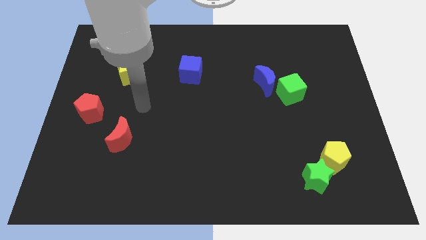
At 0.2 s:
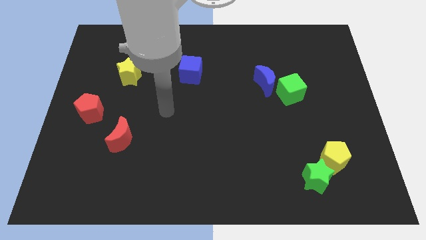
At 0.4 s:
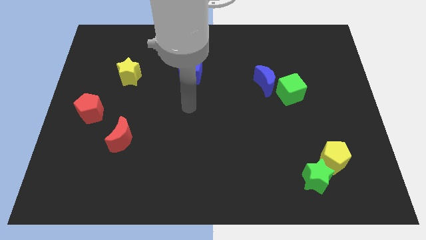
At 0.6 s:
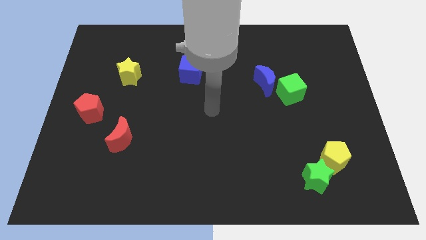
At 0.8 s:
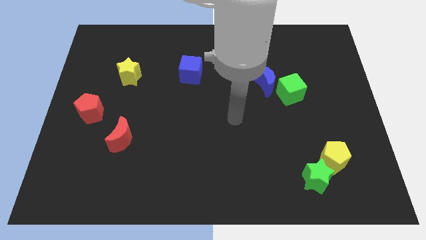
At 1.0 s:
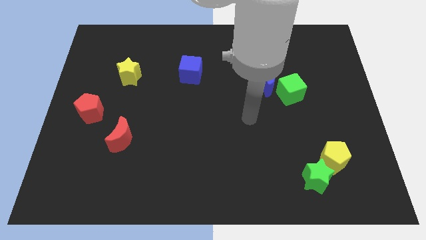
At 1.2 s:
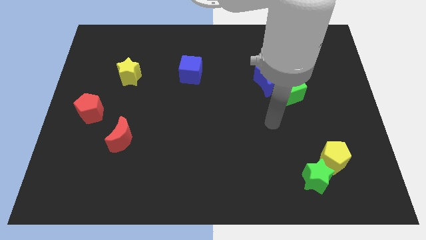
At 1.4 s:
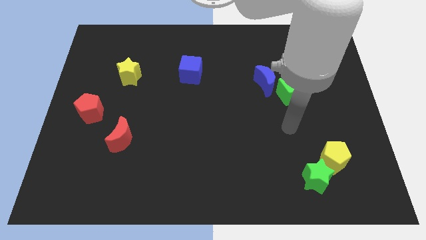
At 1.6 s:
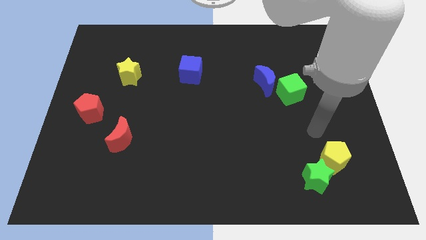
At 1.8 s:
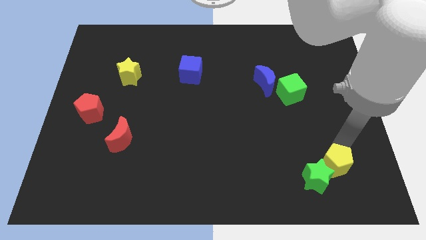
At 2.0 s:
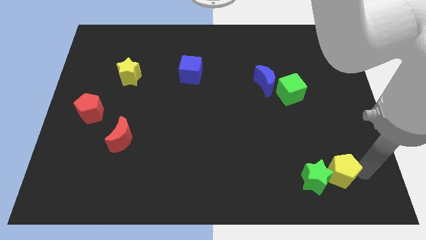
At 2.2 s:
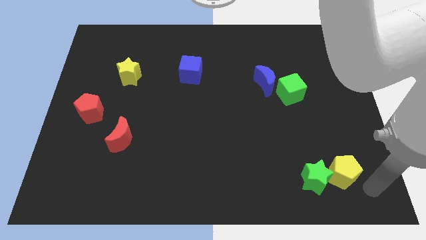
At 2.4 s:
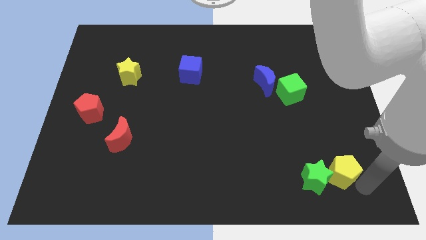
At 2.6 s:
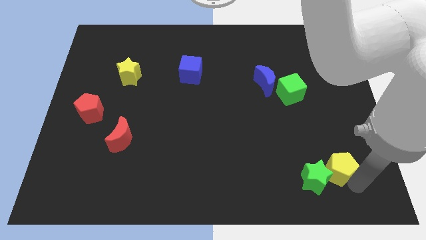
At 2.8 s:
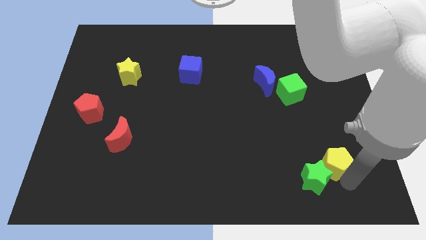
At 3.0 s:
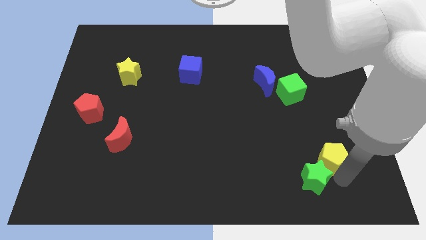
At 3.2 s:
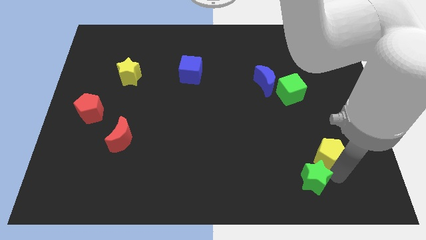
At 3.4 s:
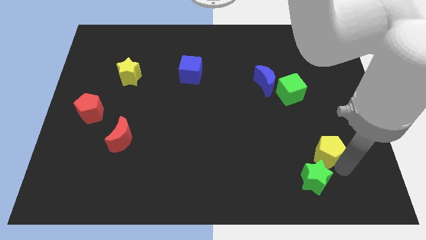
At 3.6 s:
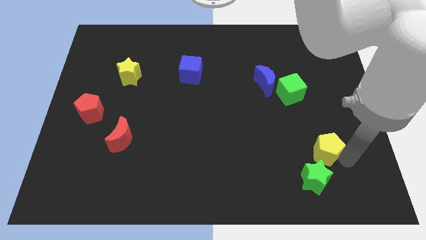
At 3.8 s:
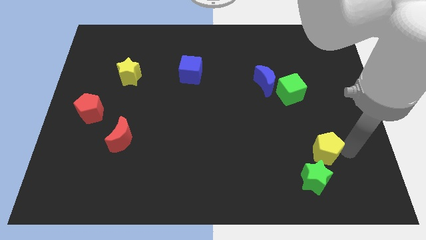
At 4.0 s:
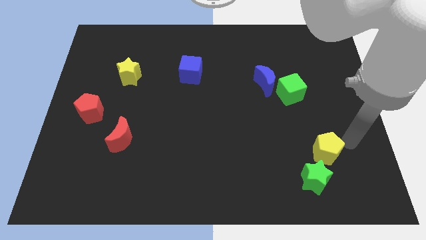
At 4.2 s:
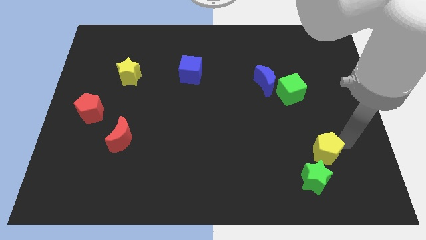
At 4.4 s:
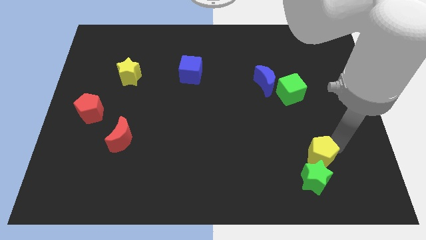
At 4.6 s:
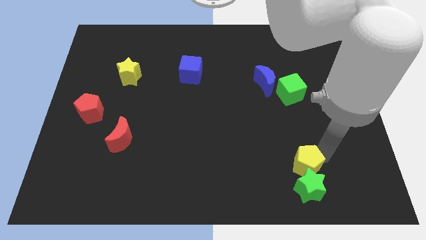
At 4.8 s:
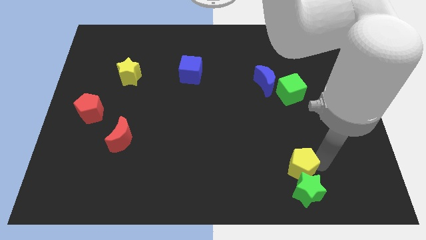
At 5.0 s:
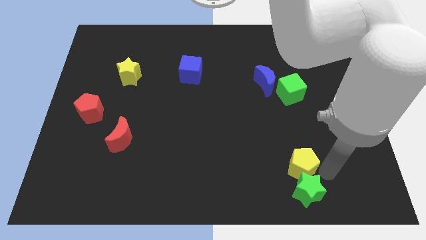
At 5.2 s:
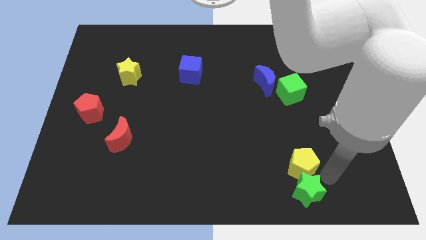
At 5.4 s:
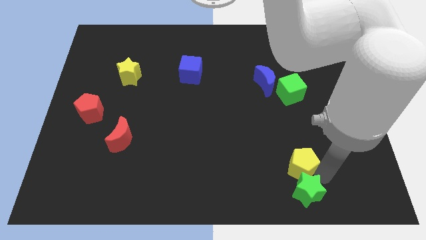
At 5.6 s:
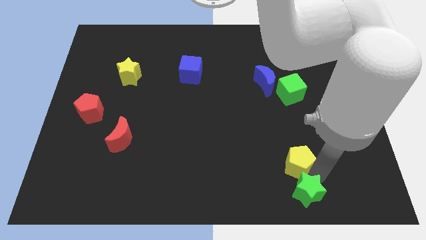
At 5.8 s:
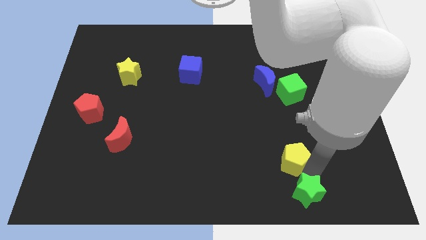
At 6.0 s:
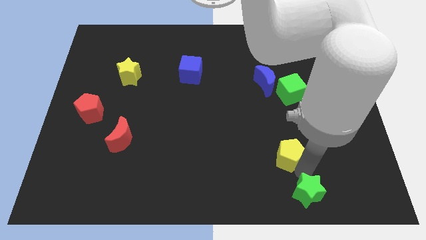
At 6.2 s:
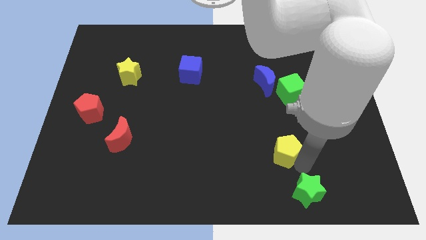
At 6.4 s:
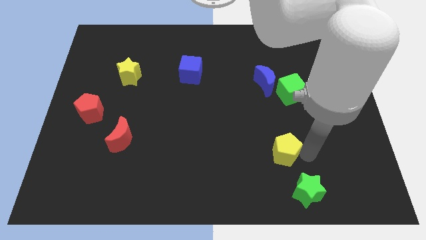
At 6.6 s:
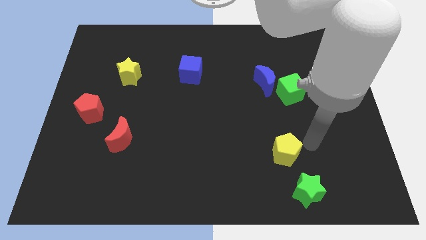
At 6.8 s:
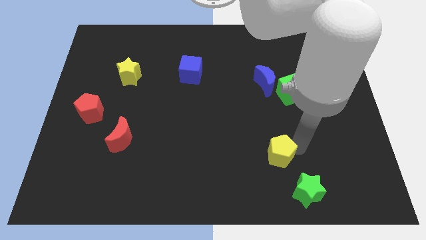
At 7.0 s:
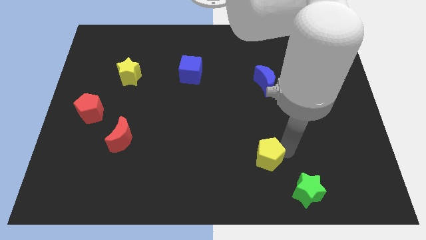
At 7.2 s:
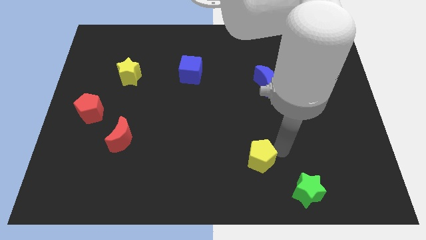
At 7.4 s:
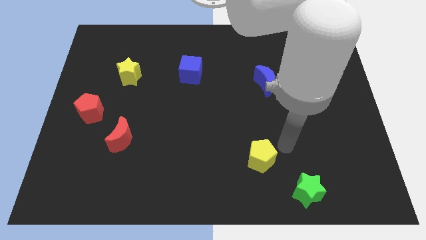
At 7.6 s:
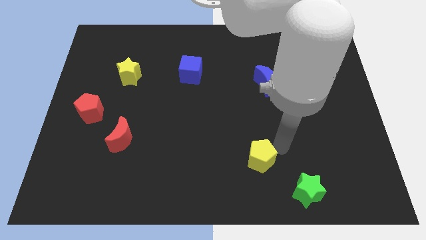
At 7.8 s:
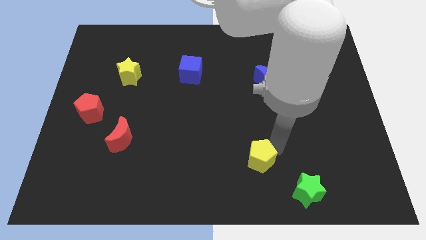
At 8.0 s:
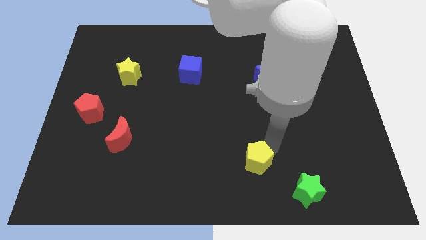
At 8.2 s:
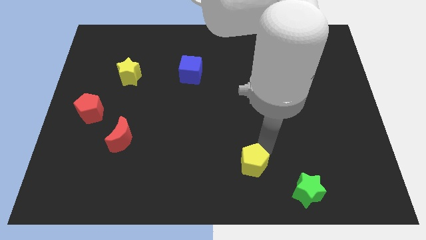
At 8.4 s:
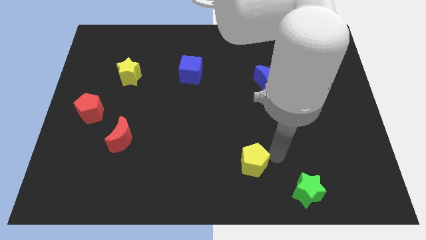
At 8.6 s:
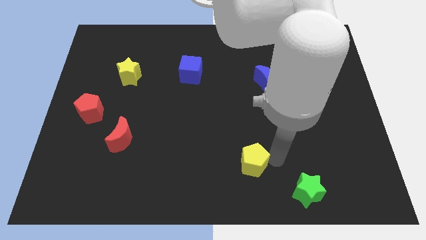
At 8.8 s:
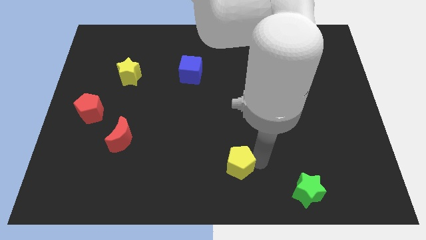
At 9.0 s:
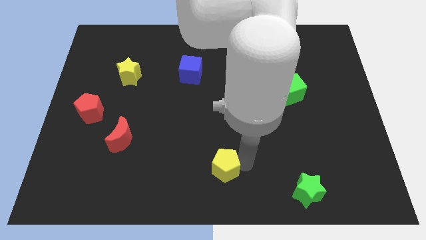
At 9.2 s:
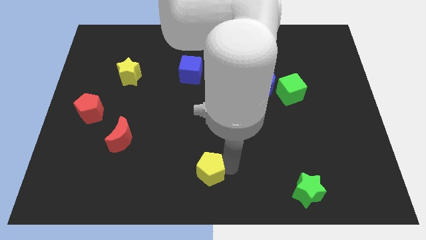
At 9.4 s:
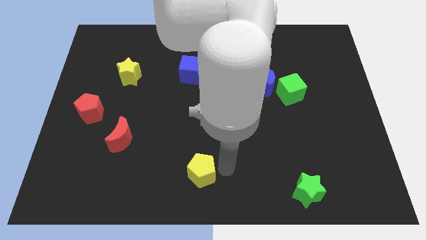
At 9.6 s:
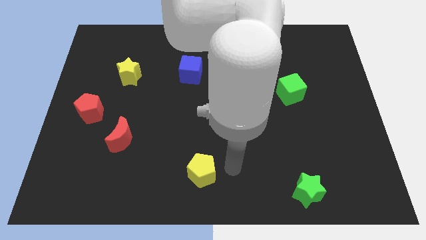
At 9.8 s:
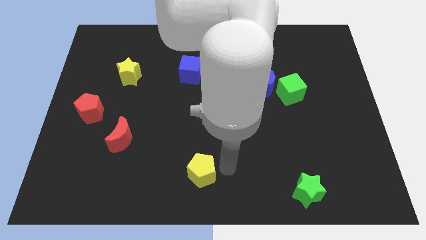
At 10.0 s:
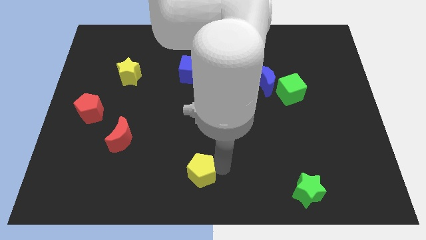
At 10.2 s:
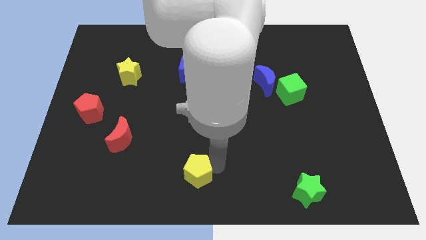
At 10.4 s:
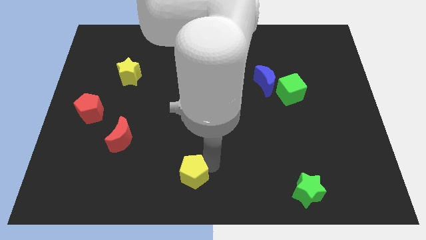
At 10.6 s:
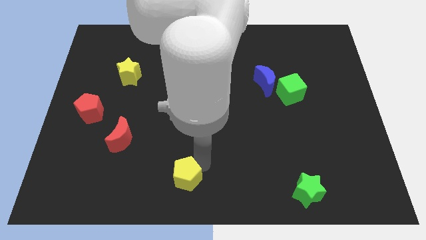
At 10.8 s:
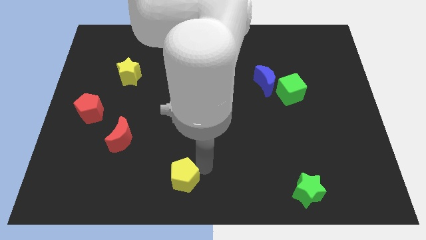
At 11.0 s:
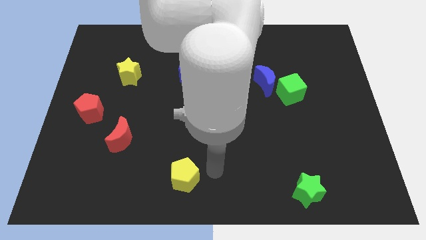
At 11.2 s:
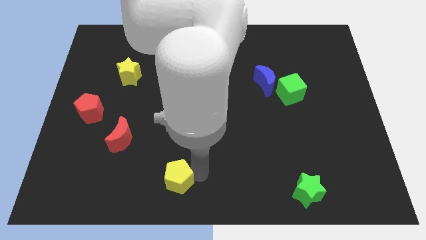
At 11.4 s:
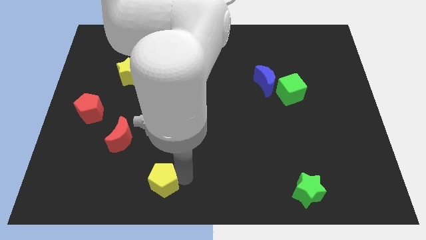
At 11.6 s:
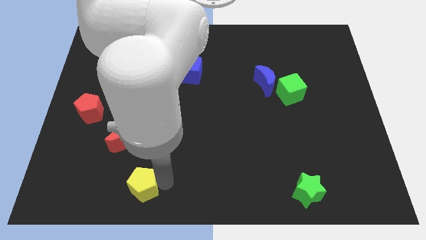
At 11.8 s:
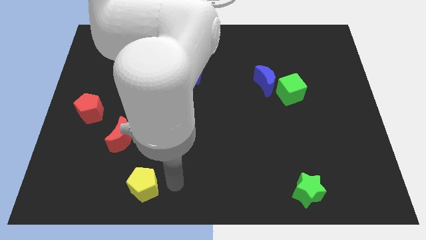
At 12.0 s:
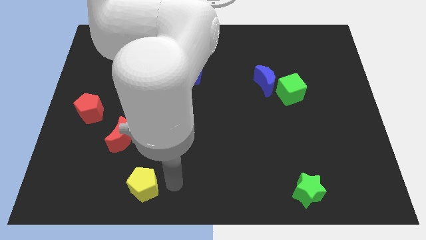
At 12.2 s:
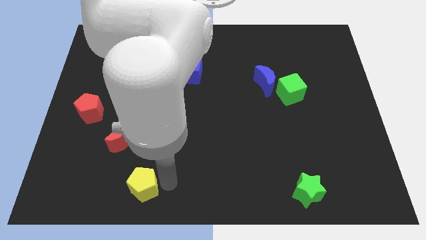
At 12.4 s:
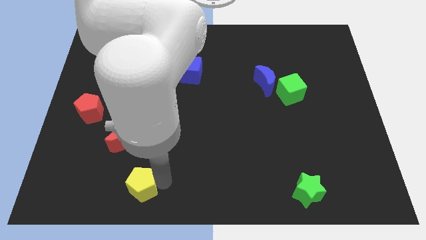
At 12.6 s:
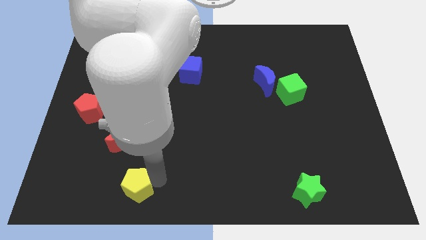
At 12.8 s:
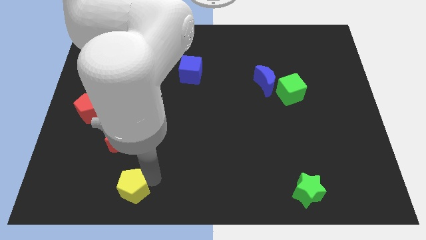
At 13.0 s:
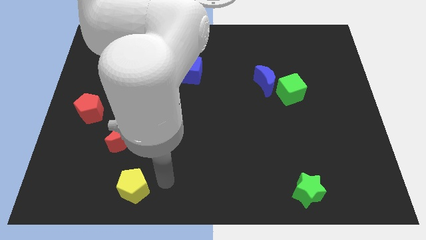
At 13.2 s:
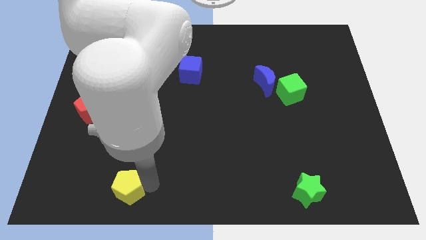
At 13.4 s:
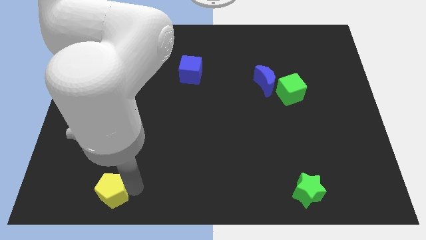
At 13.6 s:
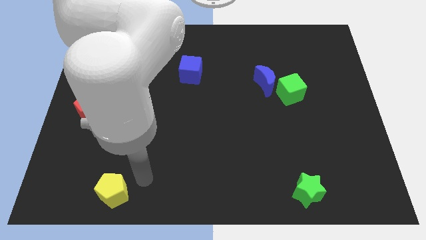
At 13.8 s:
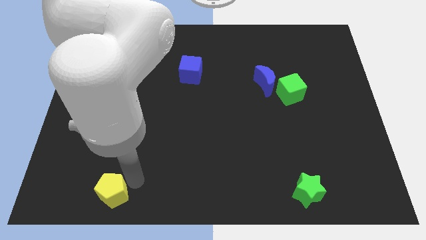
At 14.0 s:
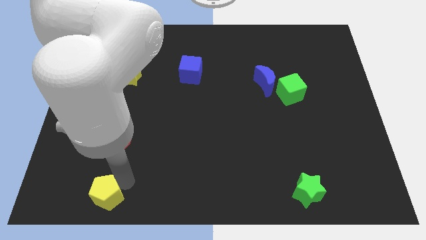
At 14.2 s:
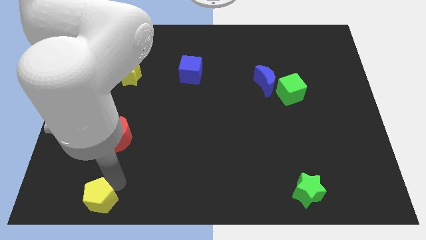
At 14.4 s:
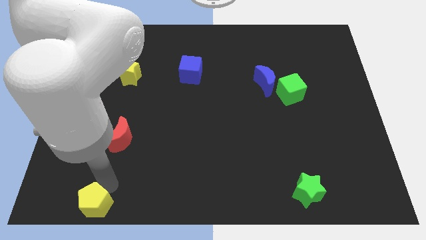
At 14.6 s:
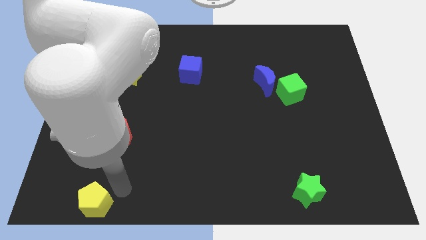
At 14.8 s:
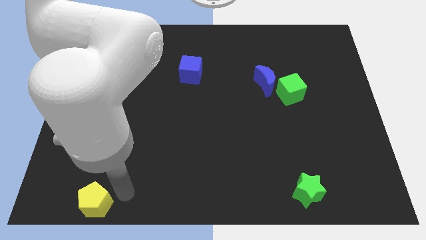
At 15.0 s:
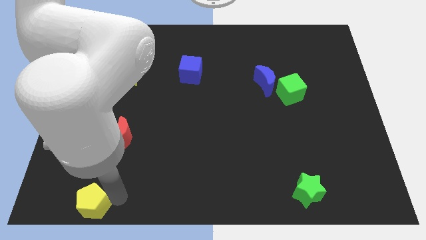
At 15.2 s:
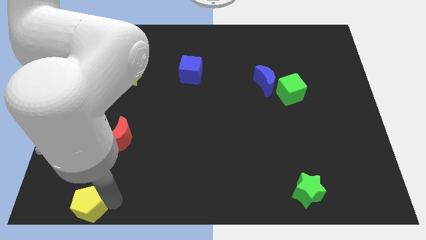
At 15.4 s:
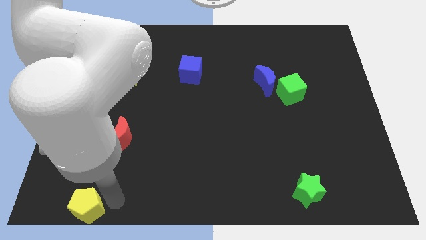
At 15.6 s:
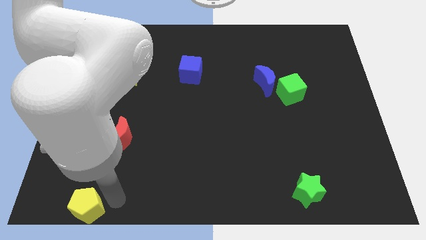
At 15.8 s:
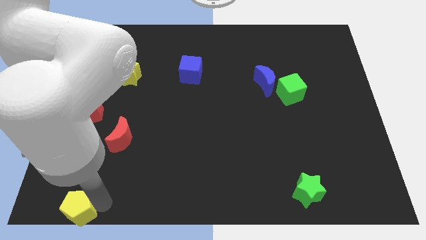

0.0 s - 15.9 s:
slide the yellow pentagon to the bottom left corner
